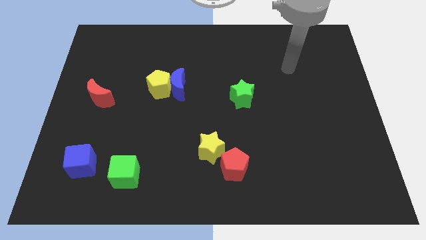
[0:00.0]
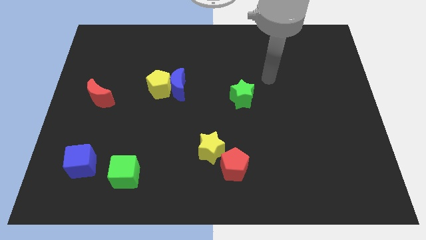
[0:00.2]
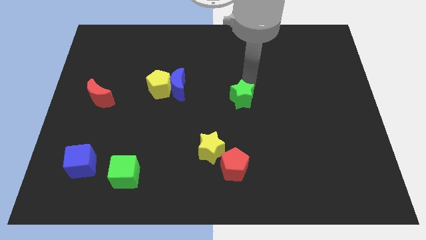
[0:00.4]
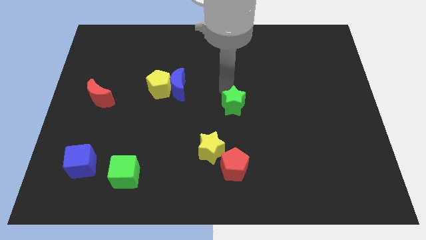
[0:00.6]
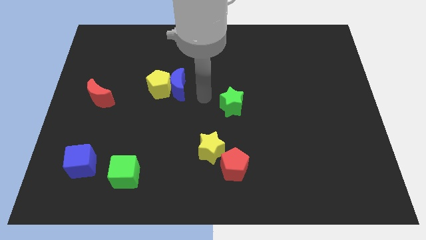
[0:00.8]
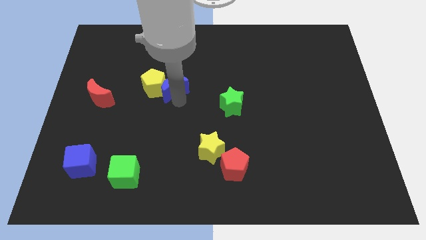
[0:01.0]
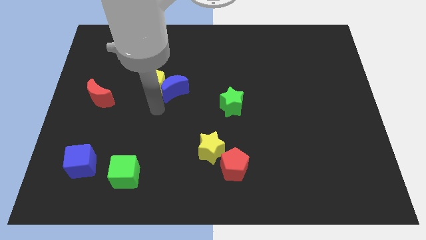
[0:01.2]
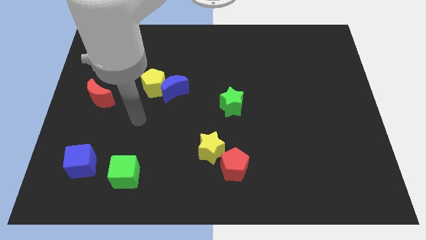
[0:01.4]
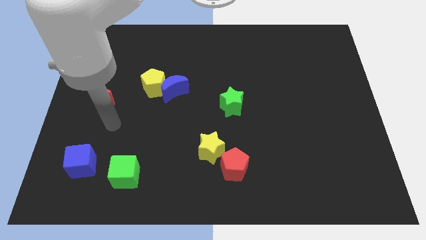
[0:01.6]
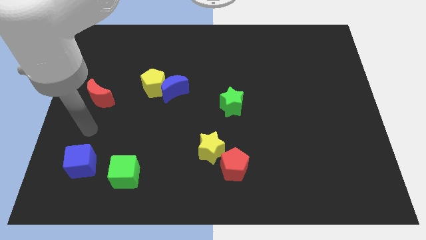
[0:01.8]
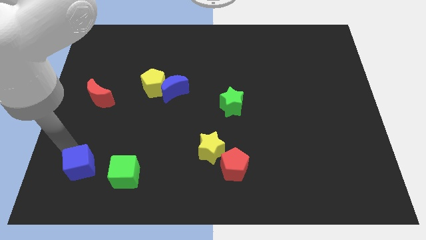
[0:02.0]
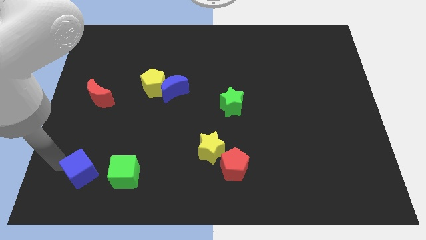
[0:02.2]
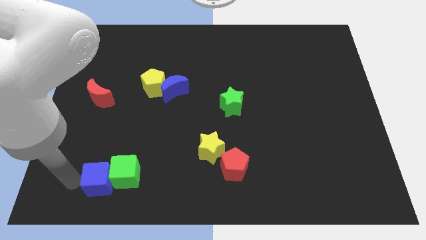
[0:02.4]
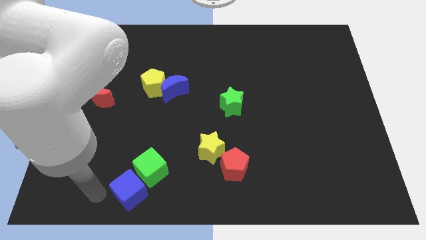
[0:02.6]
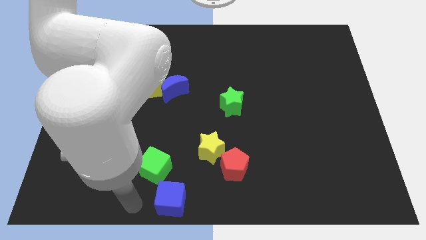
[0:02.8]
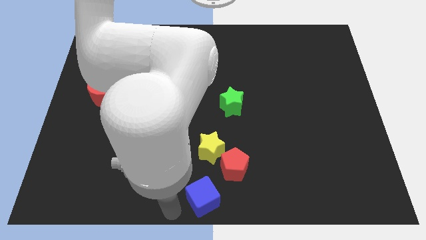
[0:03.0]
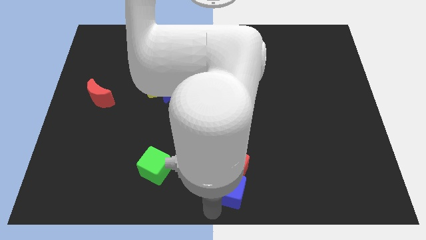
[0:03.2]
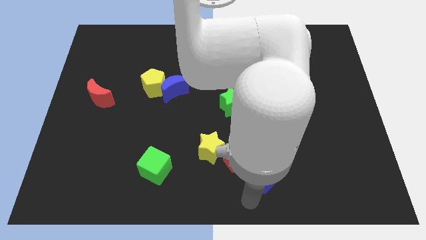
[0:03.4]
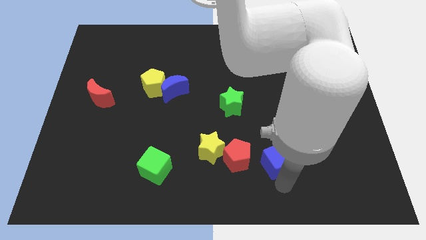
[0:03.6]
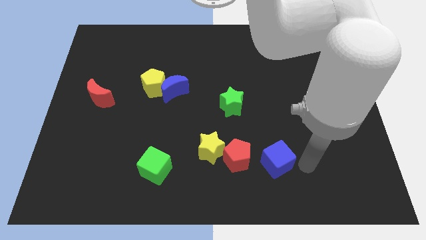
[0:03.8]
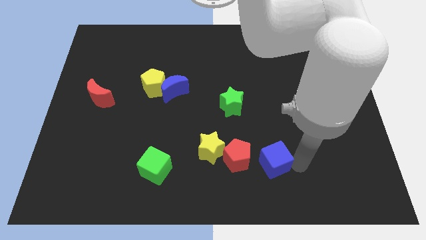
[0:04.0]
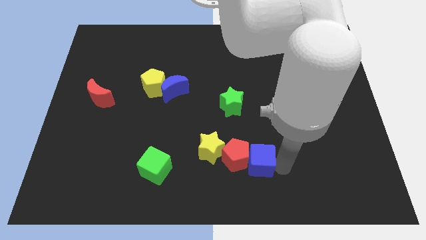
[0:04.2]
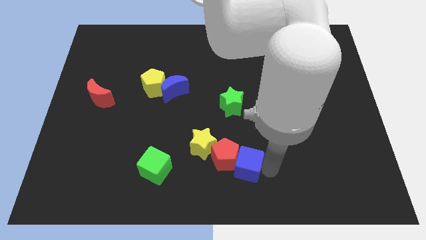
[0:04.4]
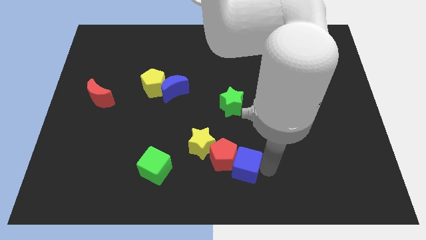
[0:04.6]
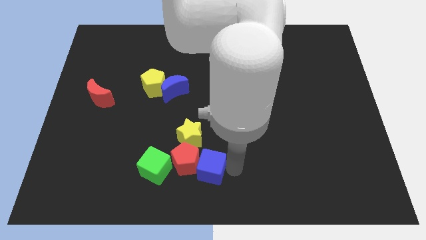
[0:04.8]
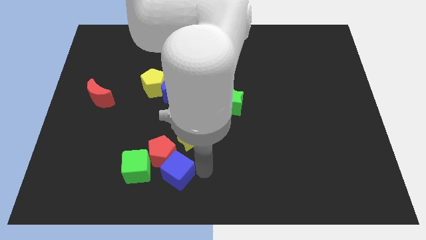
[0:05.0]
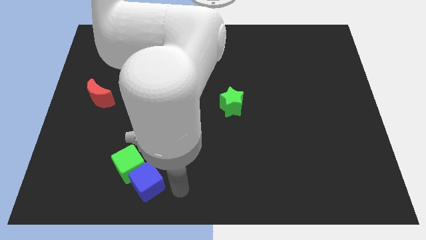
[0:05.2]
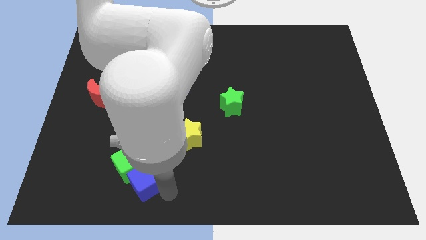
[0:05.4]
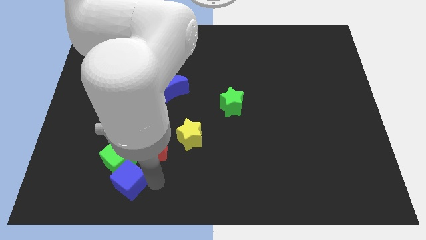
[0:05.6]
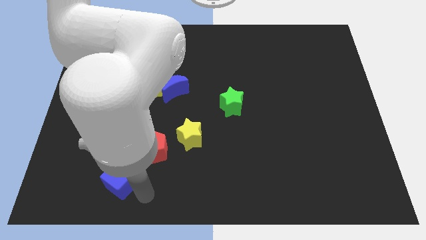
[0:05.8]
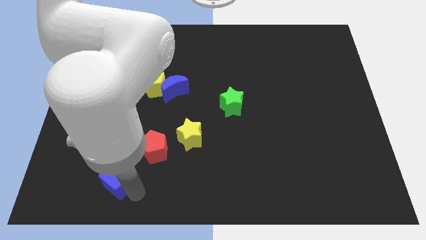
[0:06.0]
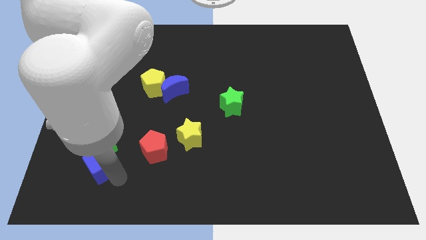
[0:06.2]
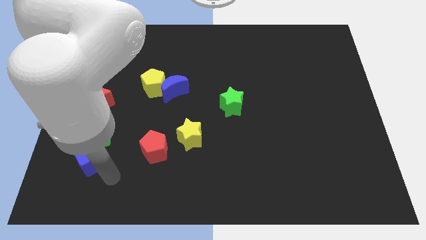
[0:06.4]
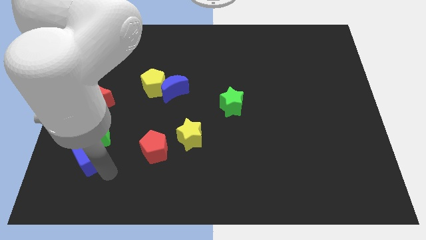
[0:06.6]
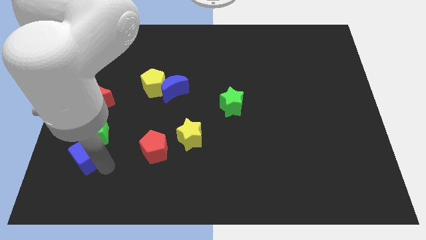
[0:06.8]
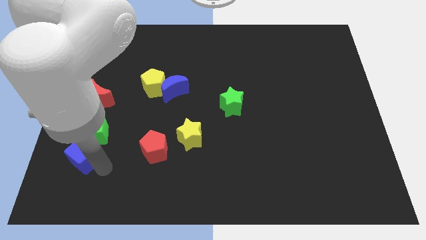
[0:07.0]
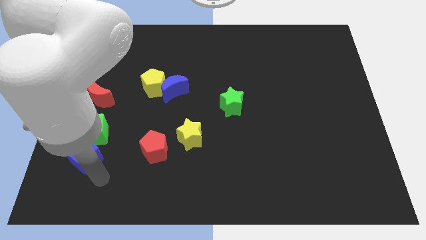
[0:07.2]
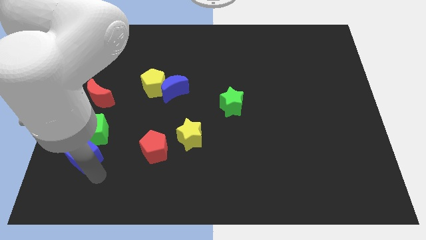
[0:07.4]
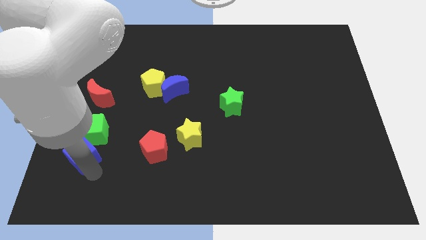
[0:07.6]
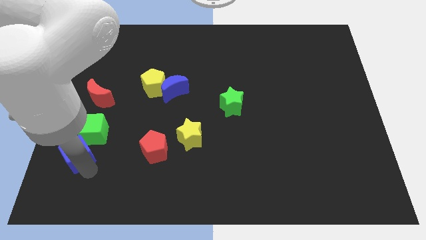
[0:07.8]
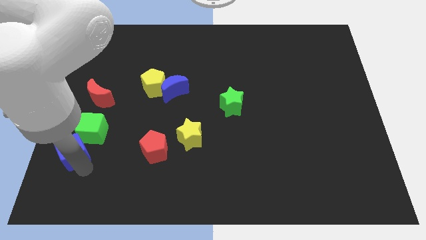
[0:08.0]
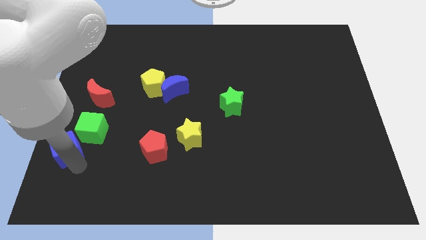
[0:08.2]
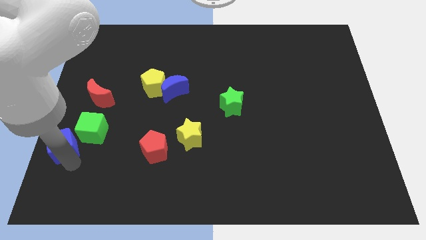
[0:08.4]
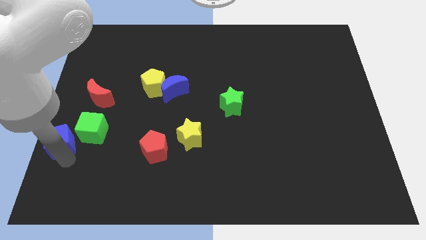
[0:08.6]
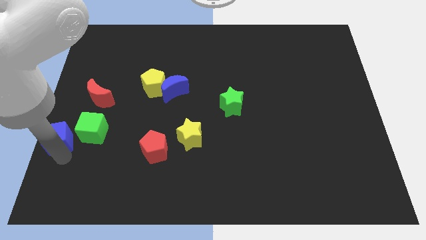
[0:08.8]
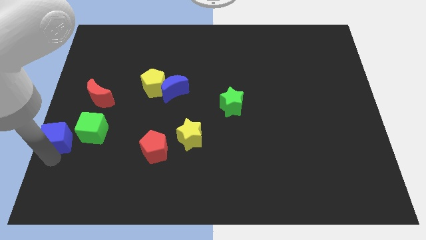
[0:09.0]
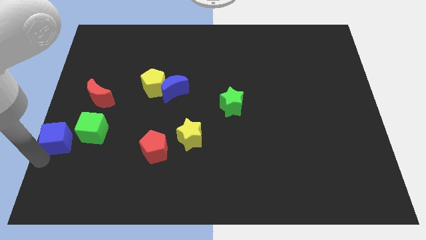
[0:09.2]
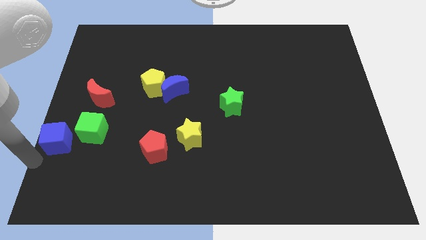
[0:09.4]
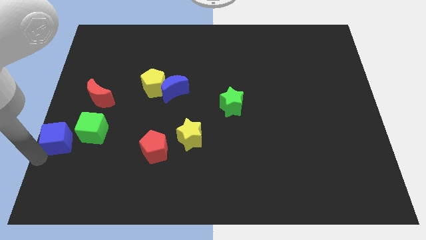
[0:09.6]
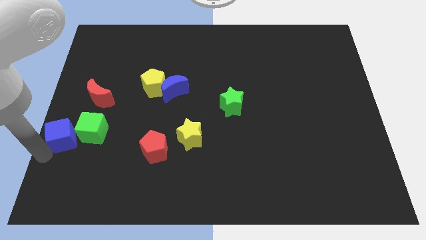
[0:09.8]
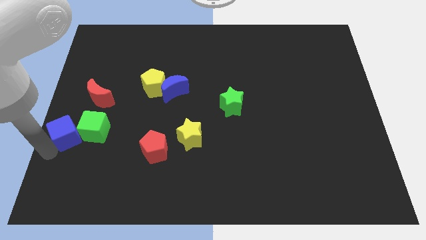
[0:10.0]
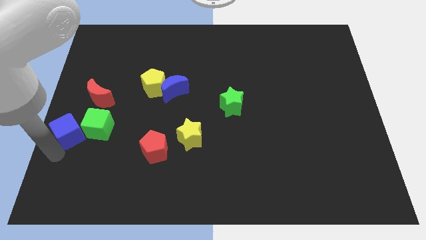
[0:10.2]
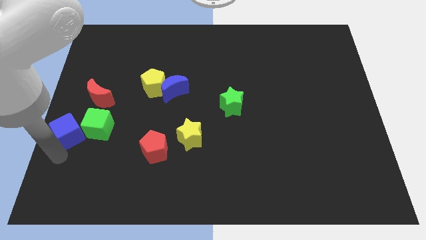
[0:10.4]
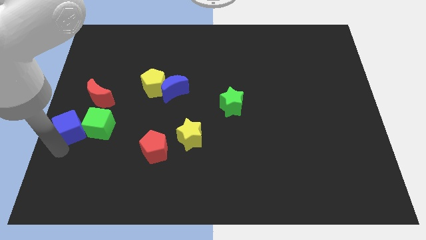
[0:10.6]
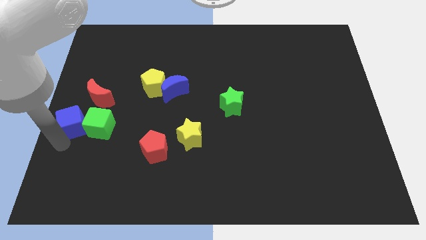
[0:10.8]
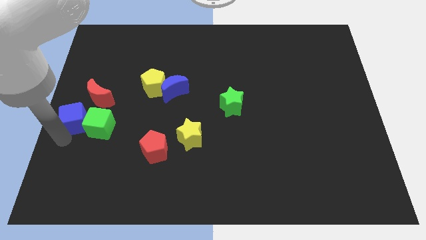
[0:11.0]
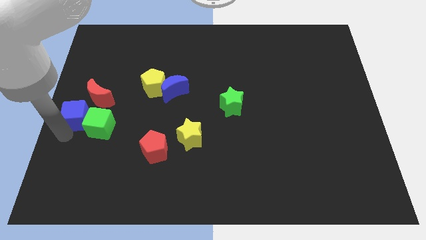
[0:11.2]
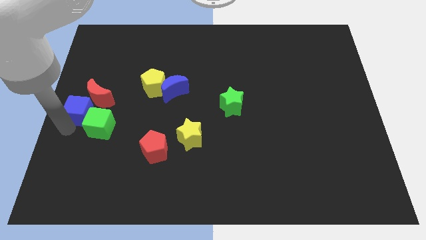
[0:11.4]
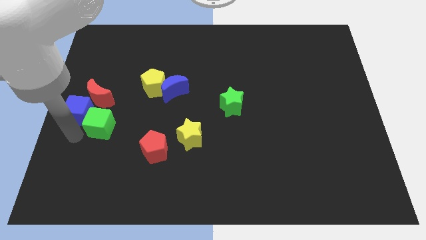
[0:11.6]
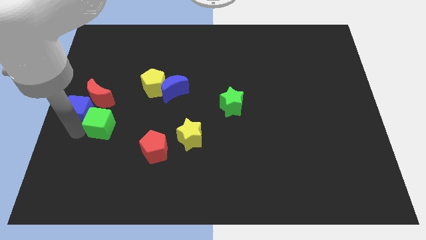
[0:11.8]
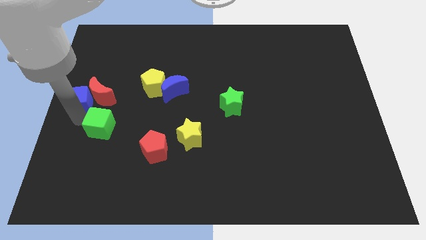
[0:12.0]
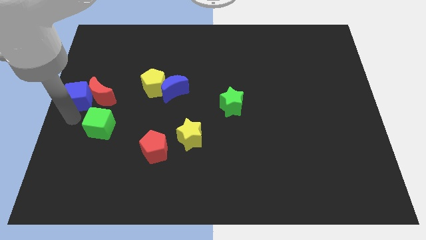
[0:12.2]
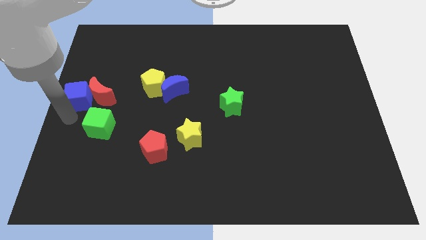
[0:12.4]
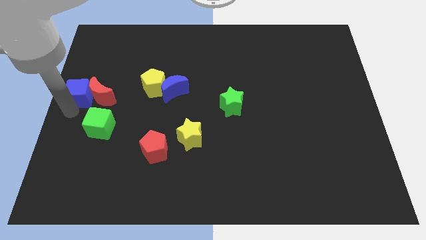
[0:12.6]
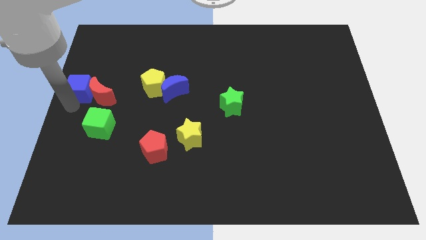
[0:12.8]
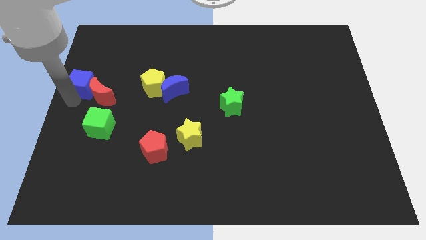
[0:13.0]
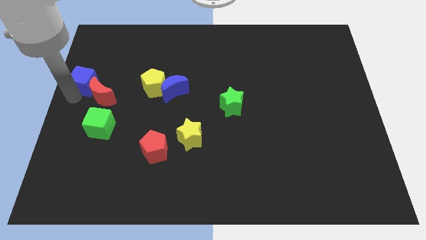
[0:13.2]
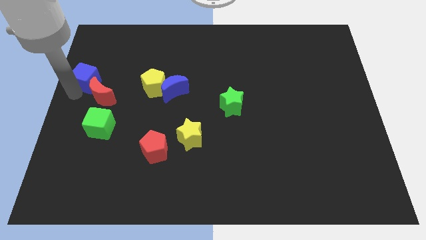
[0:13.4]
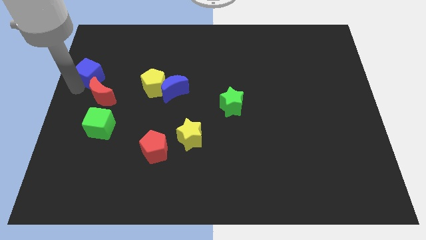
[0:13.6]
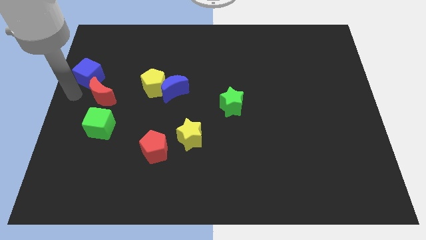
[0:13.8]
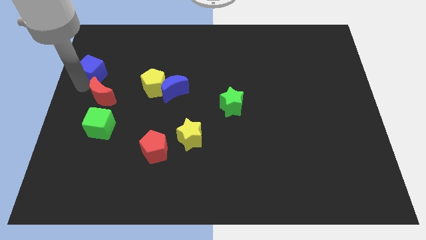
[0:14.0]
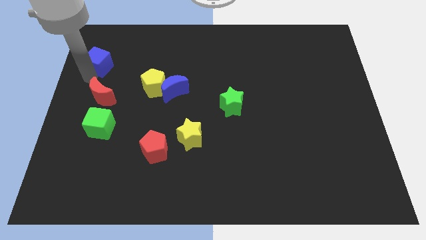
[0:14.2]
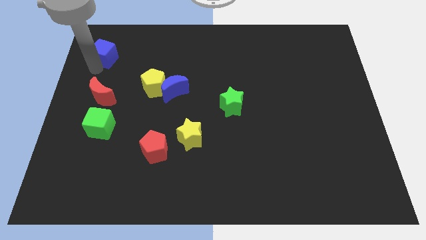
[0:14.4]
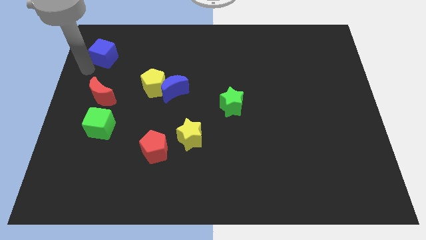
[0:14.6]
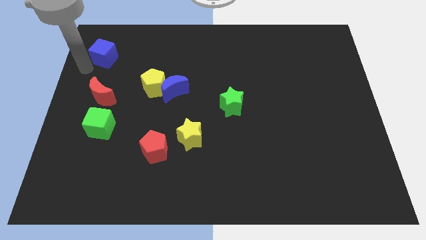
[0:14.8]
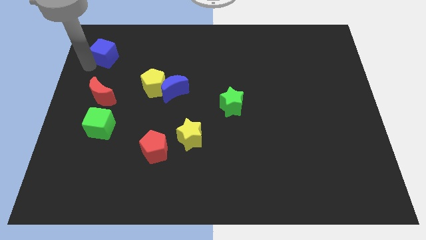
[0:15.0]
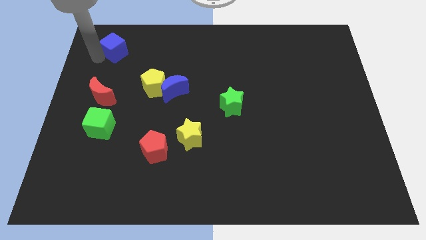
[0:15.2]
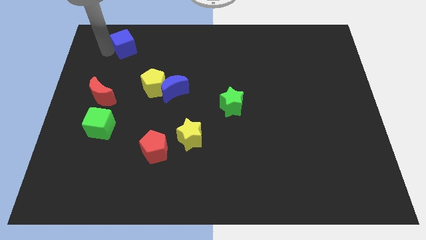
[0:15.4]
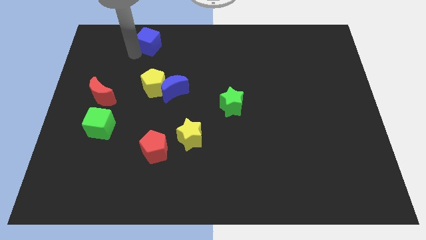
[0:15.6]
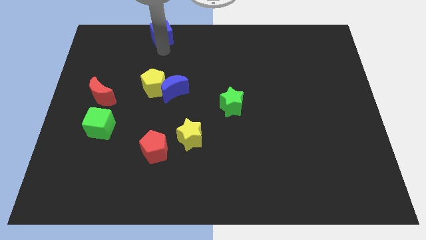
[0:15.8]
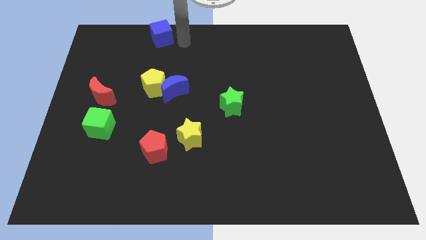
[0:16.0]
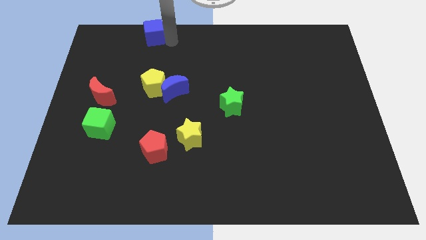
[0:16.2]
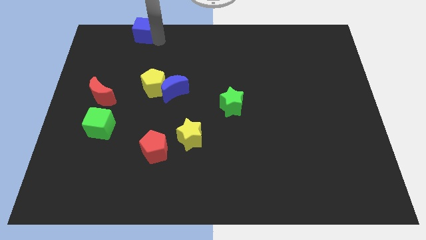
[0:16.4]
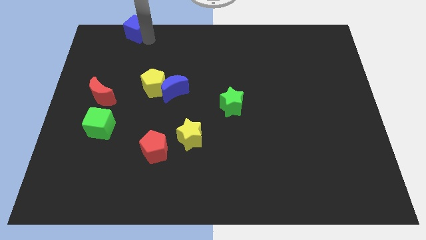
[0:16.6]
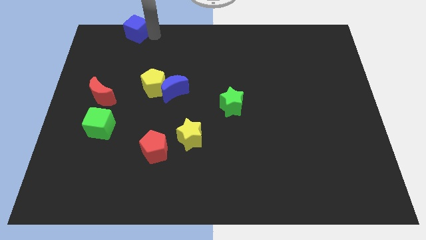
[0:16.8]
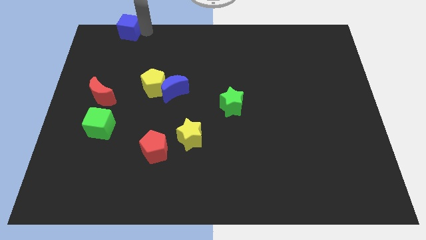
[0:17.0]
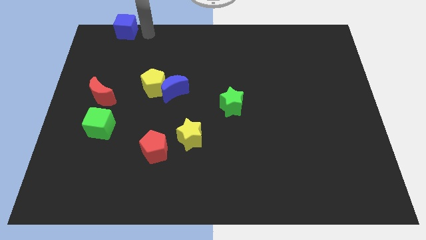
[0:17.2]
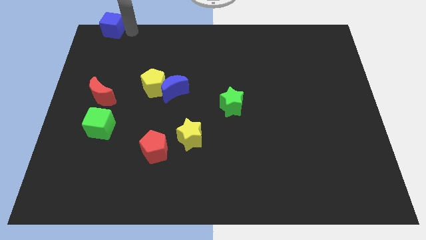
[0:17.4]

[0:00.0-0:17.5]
slide the blue cube to the top left
